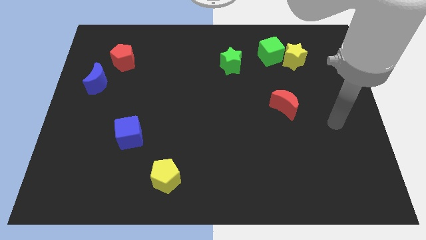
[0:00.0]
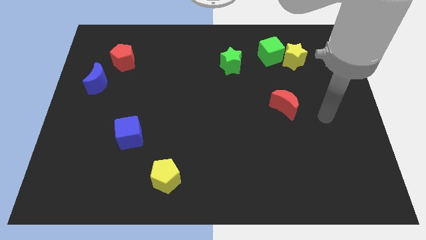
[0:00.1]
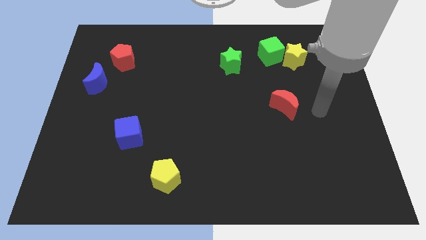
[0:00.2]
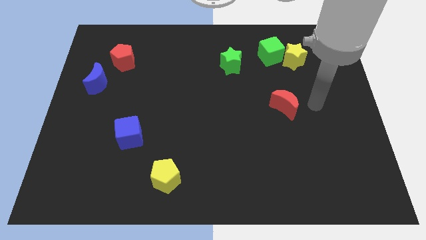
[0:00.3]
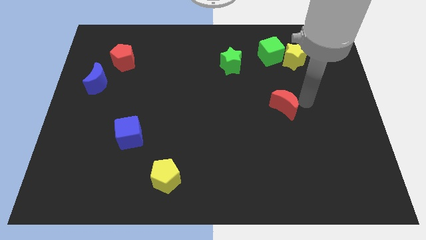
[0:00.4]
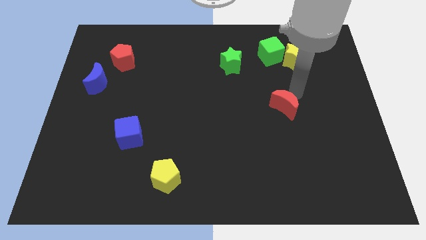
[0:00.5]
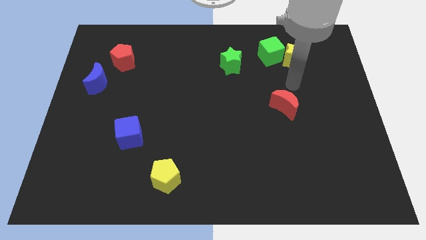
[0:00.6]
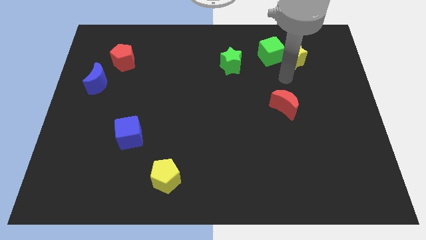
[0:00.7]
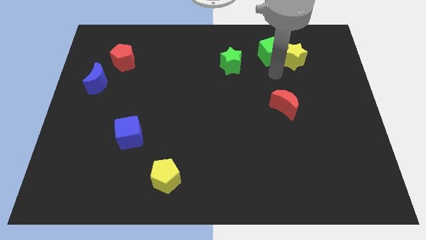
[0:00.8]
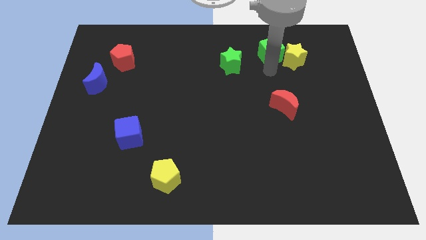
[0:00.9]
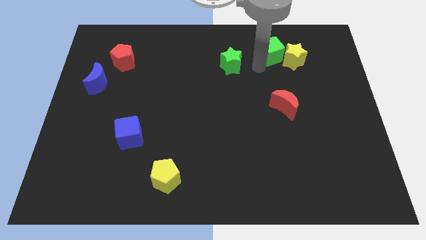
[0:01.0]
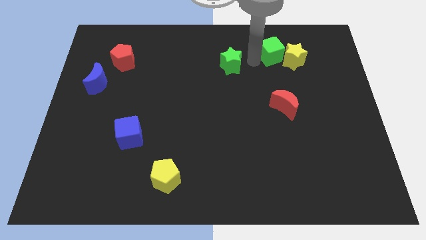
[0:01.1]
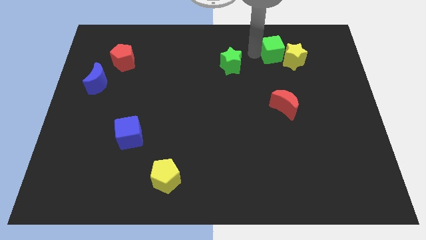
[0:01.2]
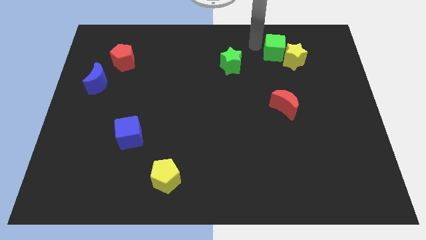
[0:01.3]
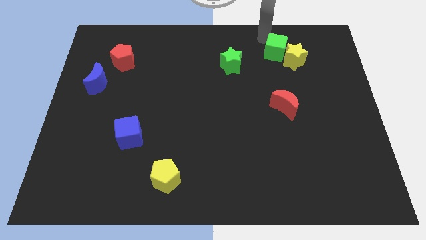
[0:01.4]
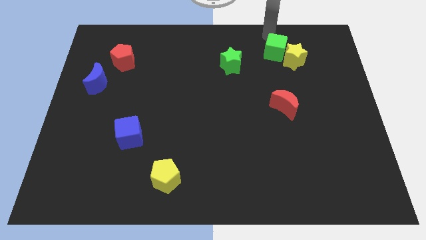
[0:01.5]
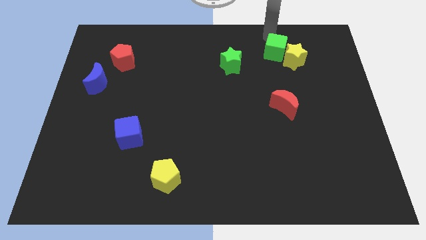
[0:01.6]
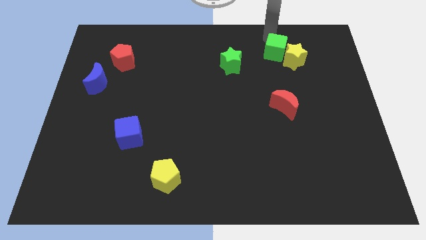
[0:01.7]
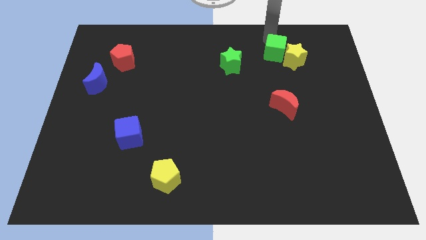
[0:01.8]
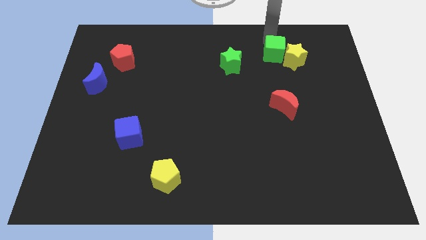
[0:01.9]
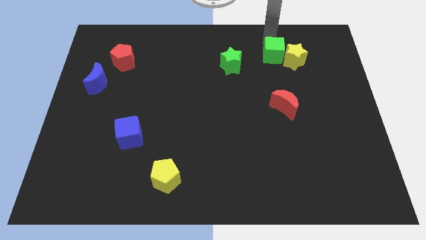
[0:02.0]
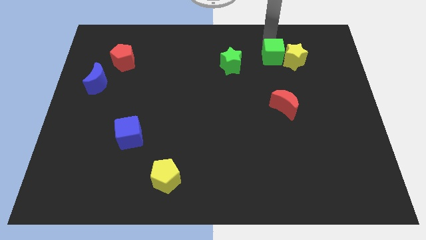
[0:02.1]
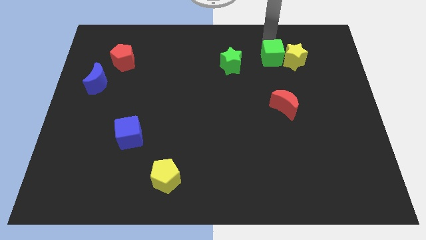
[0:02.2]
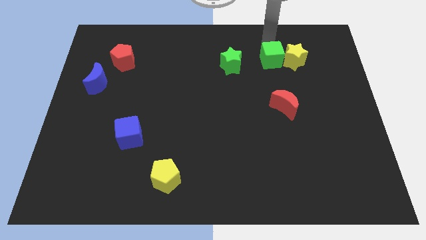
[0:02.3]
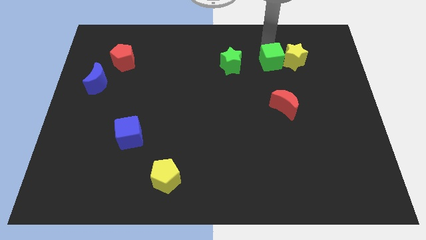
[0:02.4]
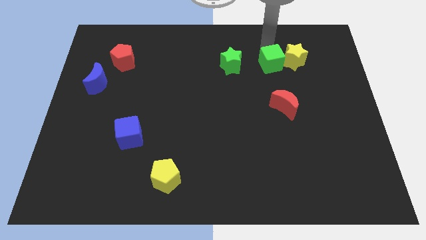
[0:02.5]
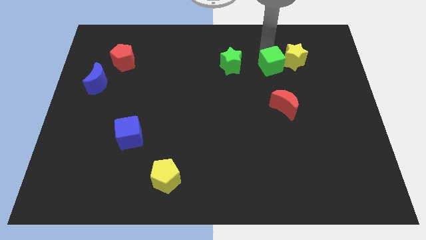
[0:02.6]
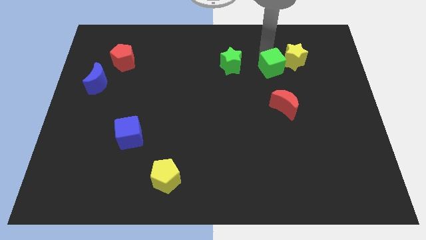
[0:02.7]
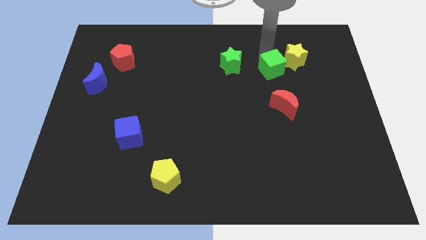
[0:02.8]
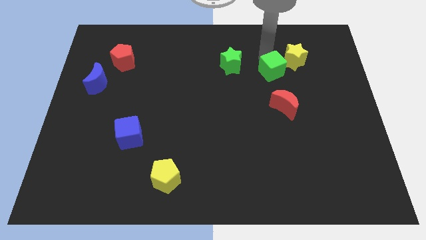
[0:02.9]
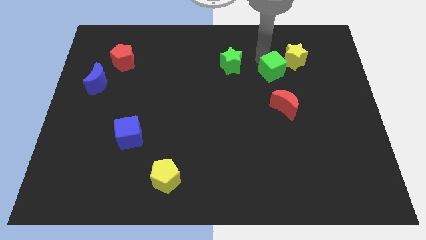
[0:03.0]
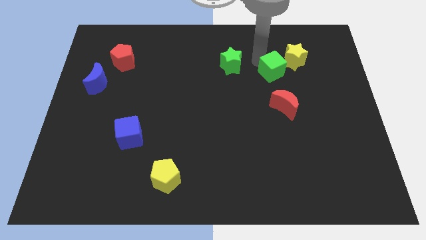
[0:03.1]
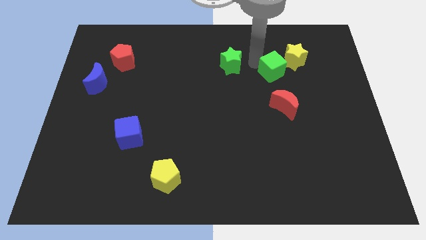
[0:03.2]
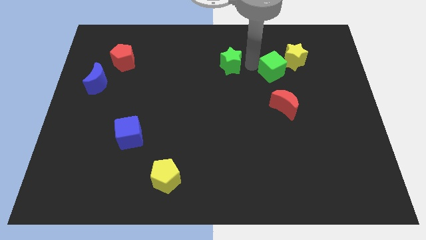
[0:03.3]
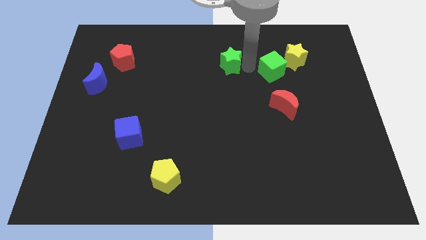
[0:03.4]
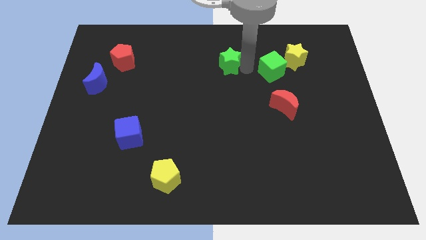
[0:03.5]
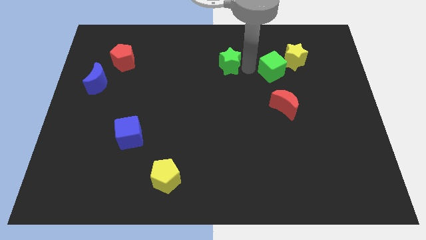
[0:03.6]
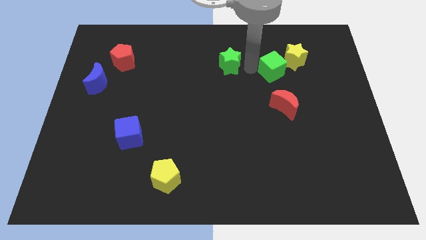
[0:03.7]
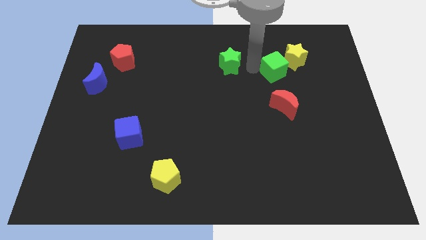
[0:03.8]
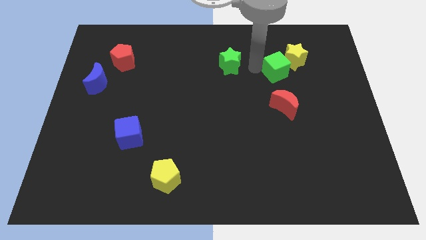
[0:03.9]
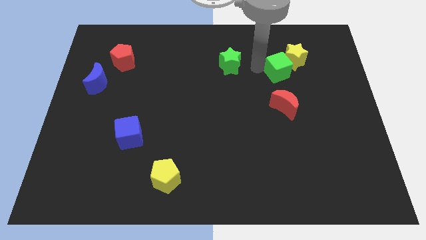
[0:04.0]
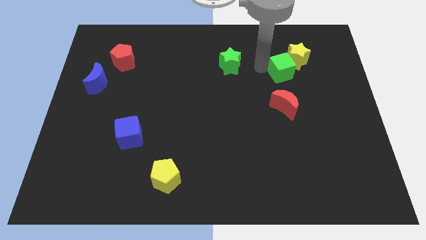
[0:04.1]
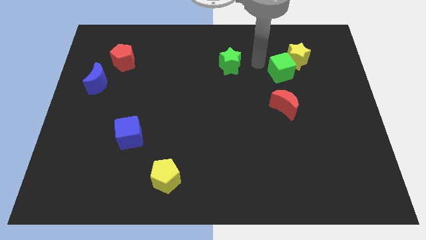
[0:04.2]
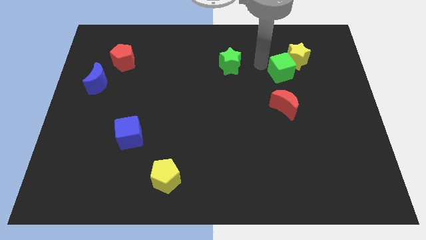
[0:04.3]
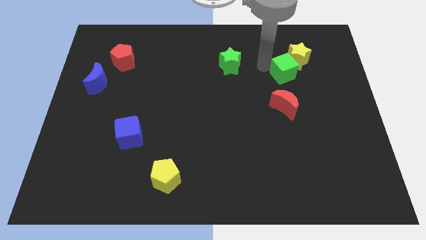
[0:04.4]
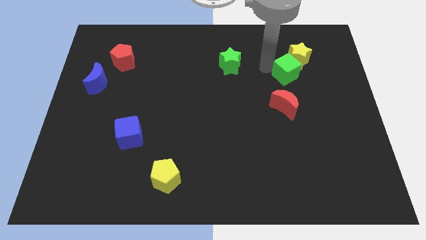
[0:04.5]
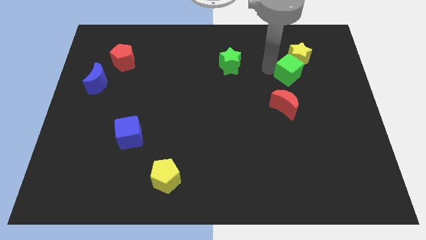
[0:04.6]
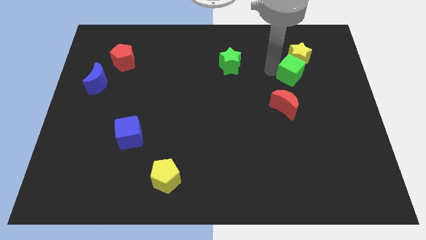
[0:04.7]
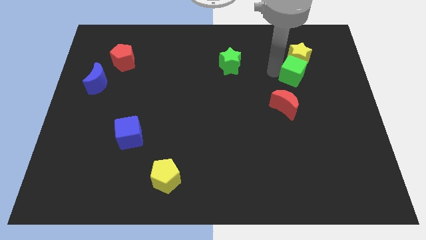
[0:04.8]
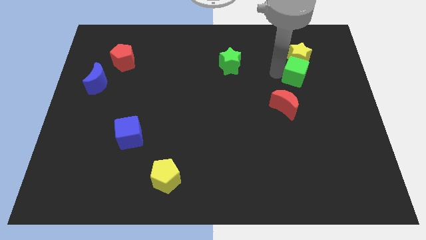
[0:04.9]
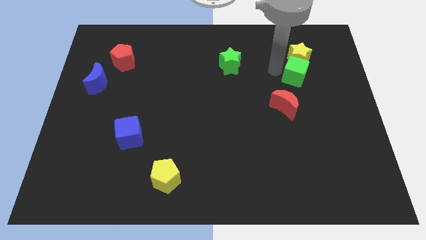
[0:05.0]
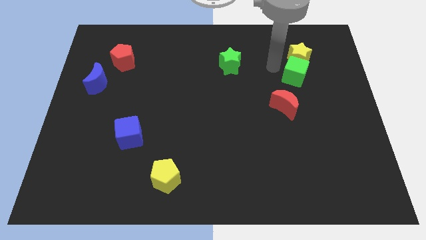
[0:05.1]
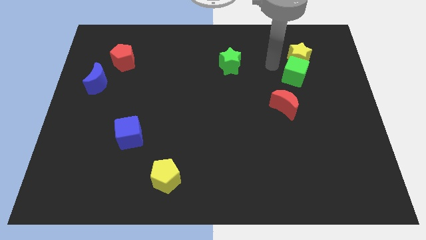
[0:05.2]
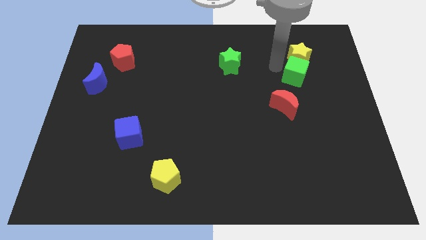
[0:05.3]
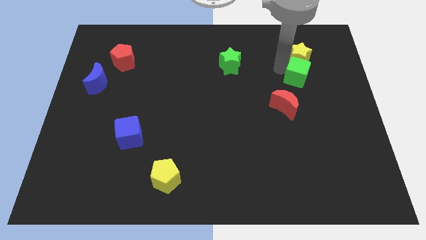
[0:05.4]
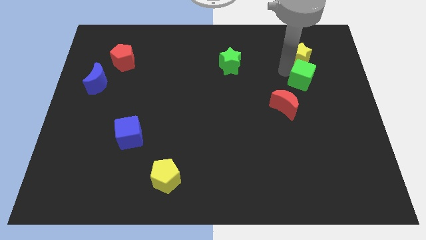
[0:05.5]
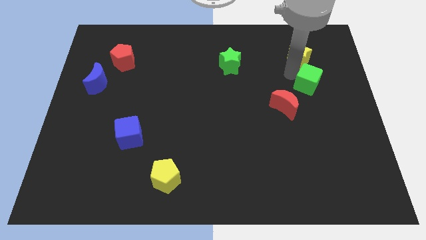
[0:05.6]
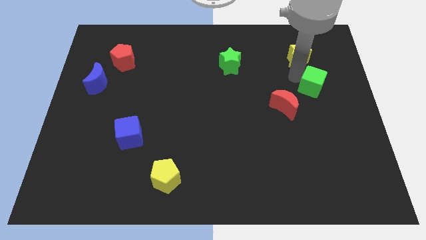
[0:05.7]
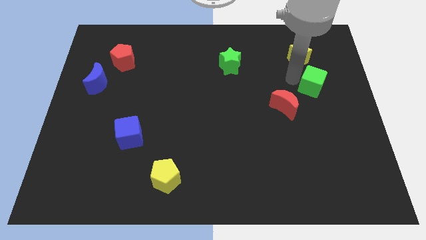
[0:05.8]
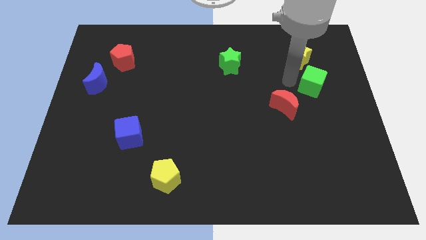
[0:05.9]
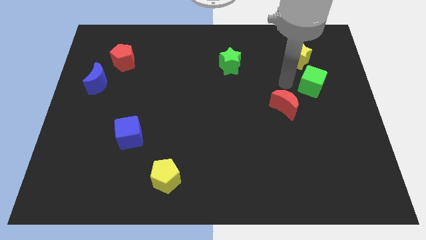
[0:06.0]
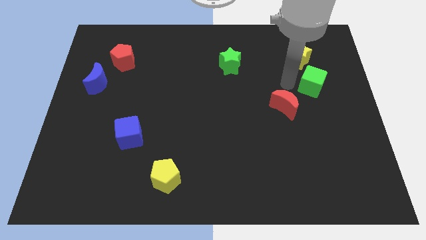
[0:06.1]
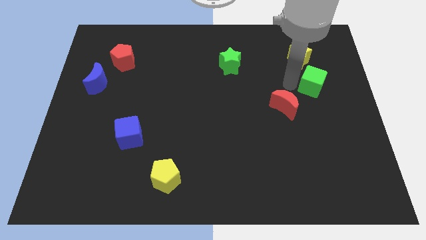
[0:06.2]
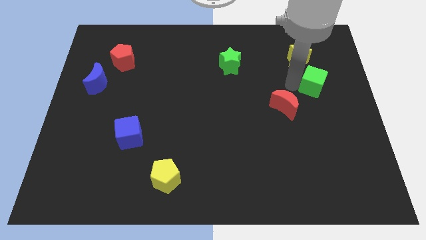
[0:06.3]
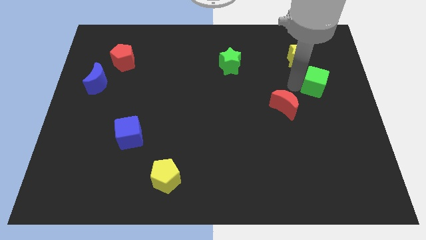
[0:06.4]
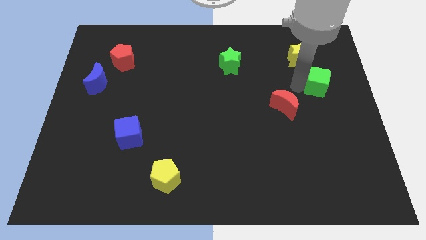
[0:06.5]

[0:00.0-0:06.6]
slide the green cube to the right side

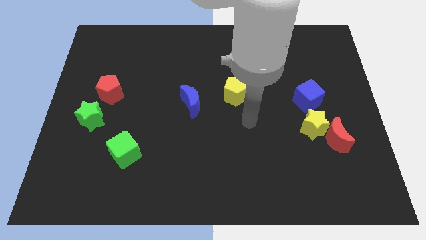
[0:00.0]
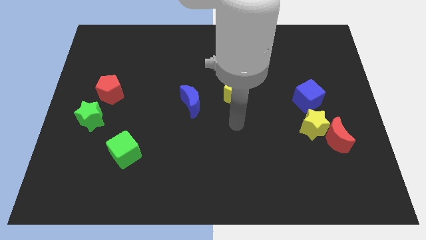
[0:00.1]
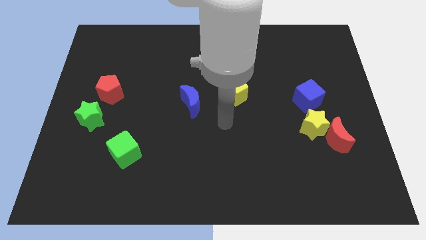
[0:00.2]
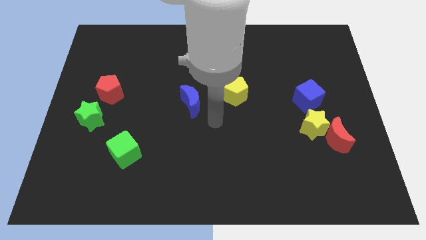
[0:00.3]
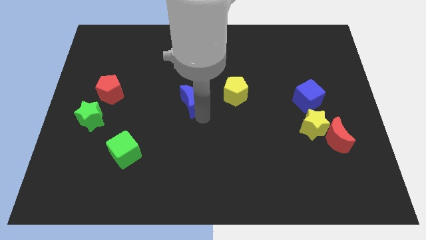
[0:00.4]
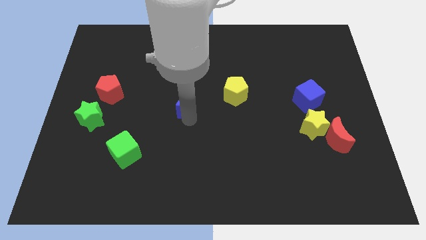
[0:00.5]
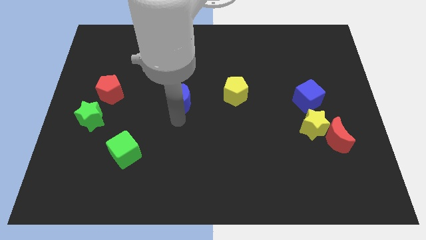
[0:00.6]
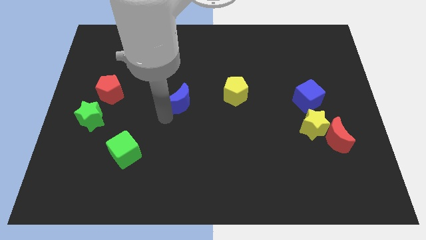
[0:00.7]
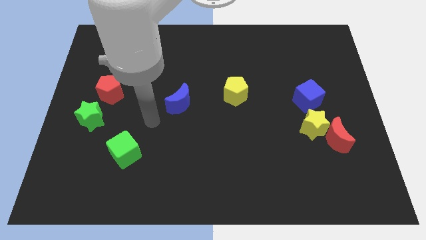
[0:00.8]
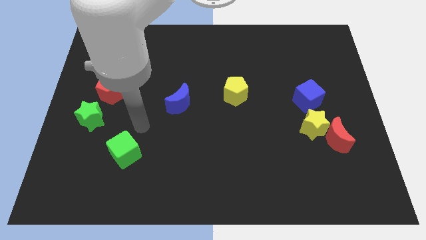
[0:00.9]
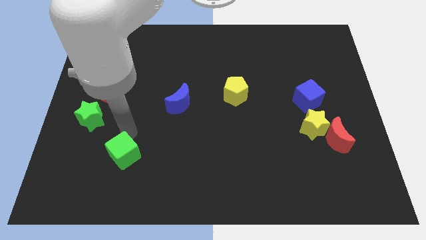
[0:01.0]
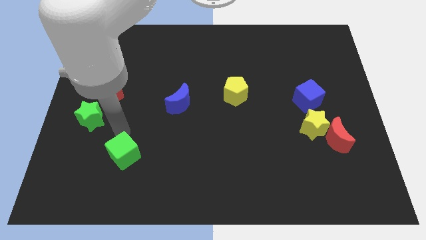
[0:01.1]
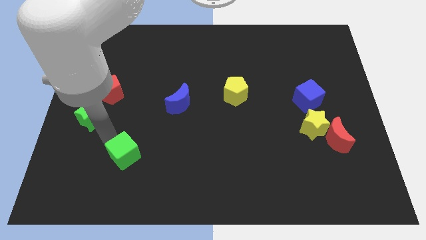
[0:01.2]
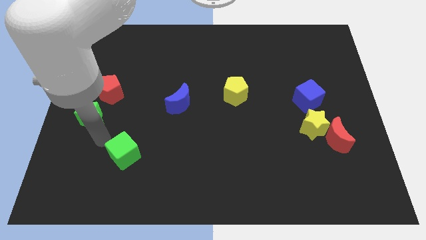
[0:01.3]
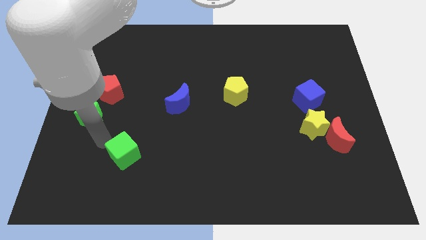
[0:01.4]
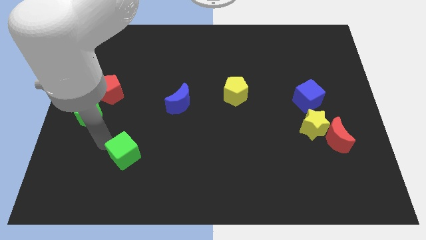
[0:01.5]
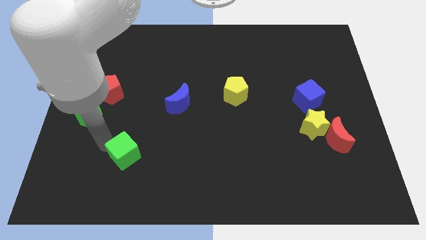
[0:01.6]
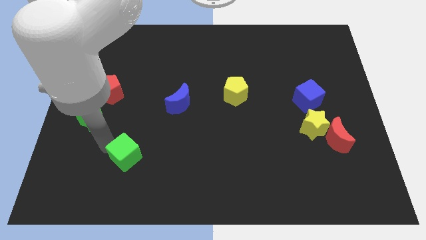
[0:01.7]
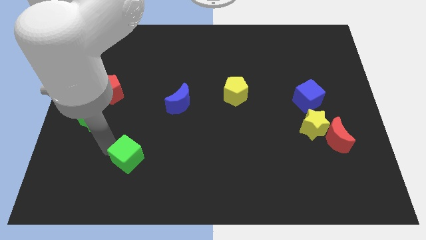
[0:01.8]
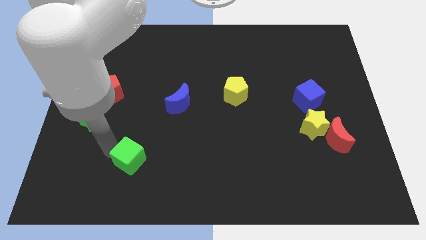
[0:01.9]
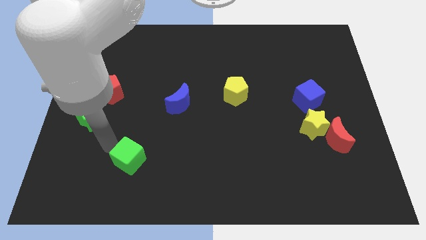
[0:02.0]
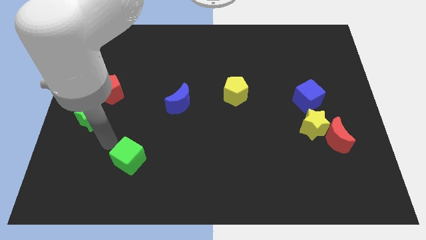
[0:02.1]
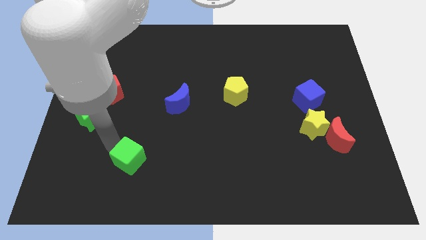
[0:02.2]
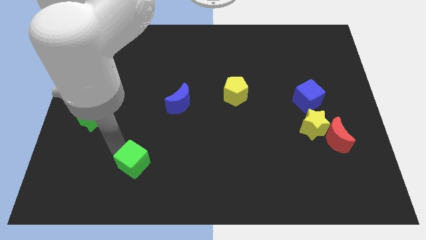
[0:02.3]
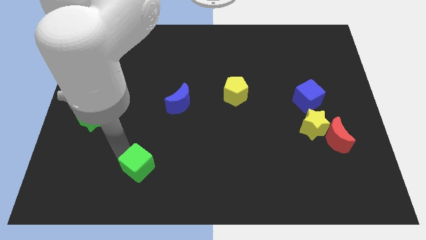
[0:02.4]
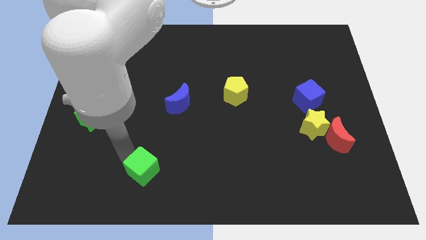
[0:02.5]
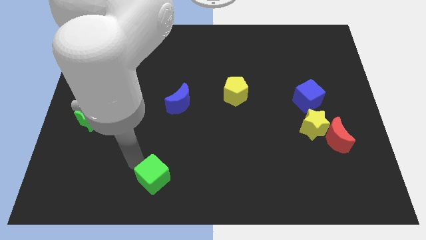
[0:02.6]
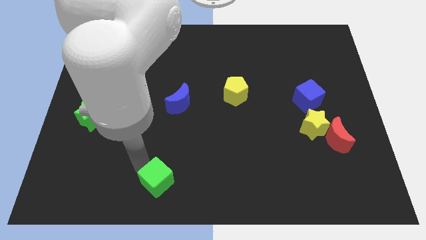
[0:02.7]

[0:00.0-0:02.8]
push the green cube to the bottom side
